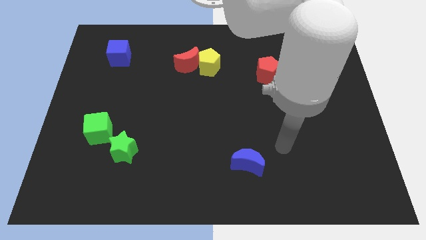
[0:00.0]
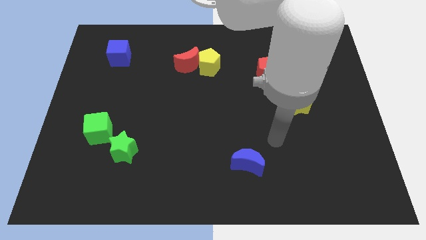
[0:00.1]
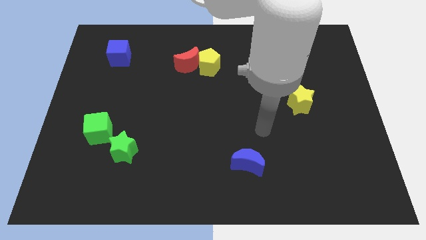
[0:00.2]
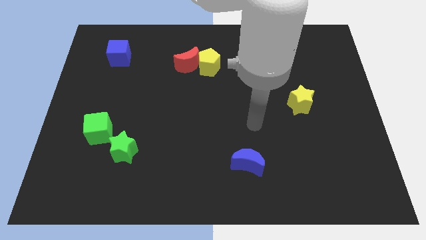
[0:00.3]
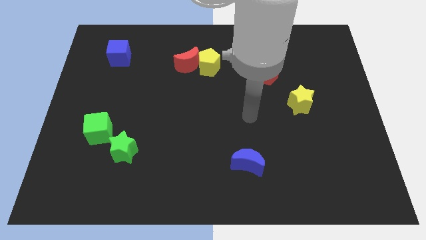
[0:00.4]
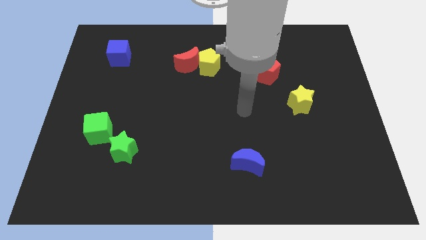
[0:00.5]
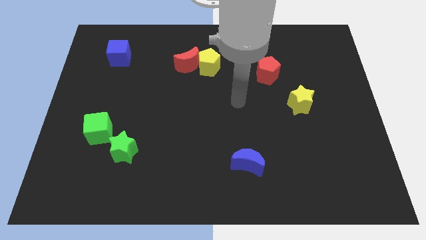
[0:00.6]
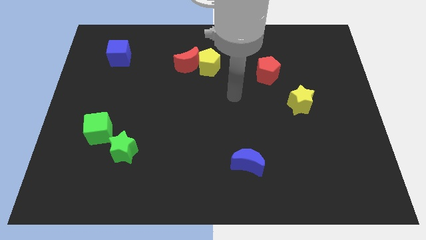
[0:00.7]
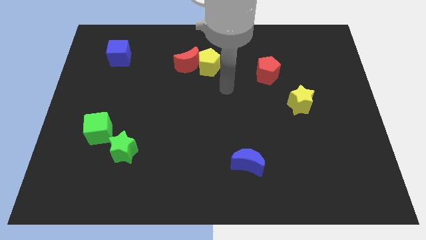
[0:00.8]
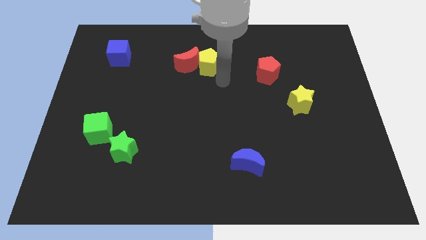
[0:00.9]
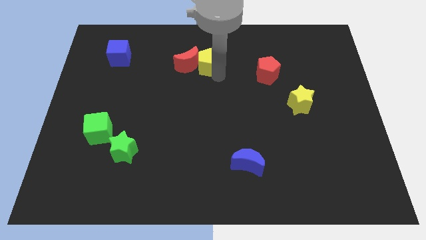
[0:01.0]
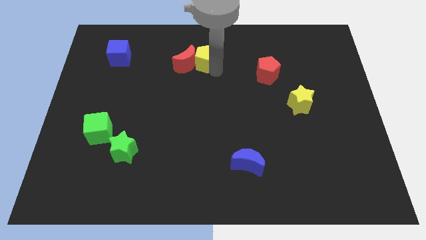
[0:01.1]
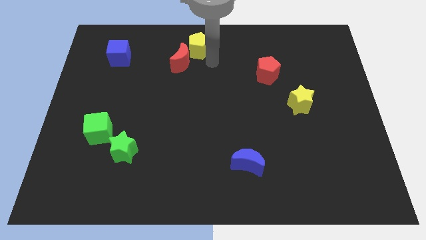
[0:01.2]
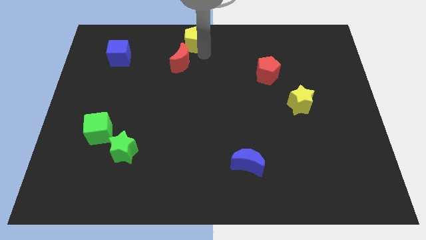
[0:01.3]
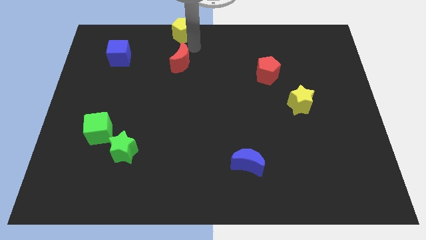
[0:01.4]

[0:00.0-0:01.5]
move the red moon away from the yellow pentagon

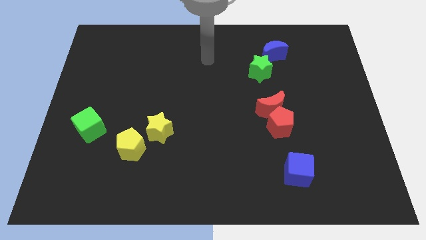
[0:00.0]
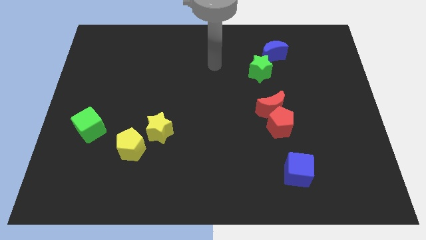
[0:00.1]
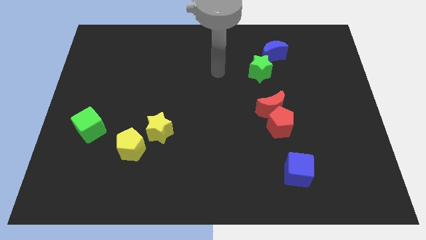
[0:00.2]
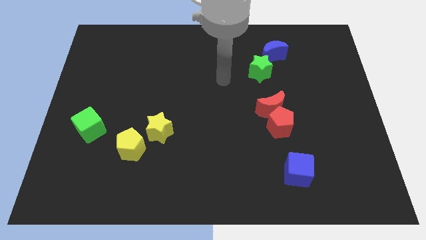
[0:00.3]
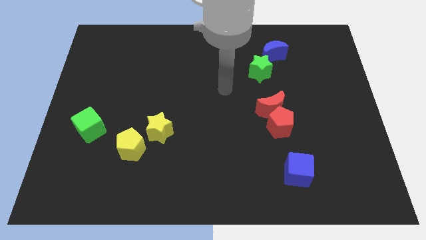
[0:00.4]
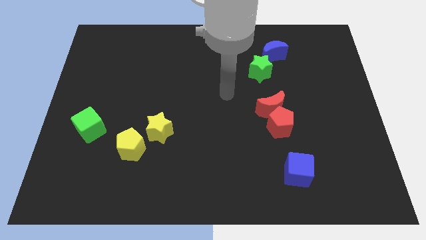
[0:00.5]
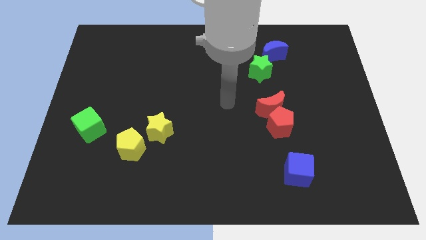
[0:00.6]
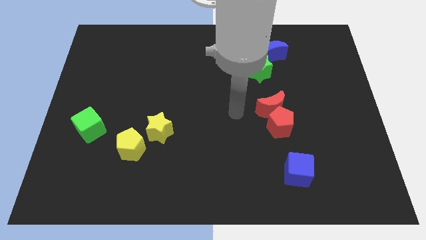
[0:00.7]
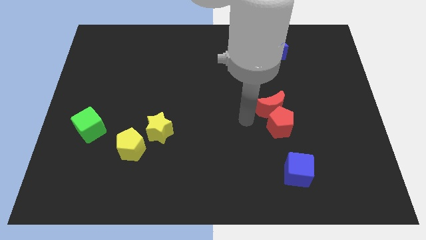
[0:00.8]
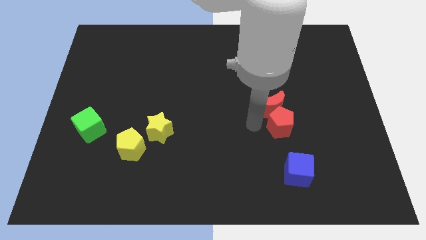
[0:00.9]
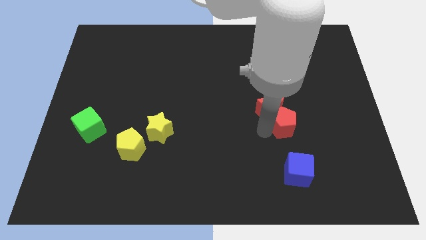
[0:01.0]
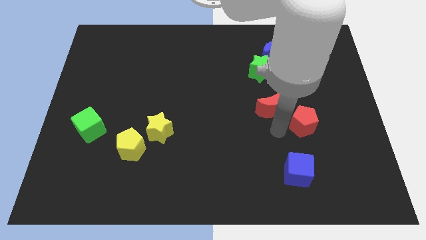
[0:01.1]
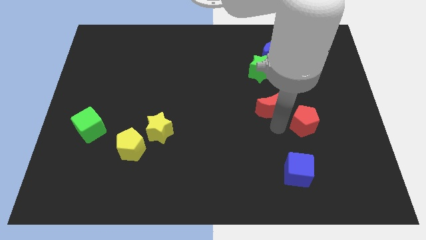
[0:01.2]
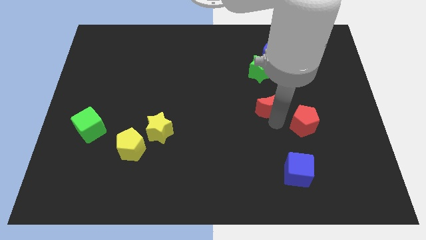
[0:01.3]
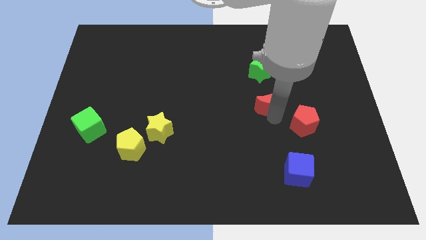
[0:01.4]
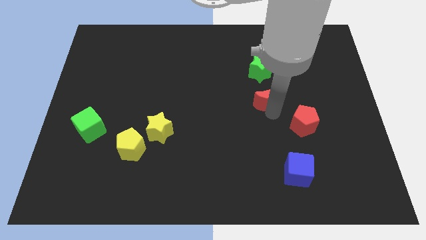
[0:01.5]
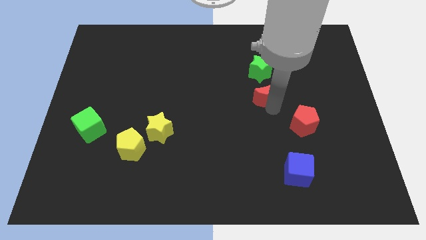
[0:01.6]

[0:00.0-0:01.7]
move the red moon away from the red pentagon

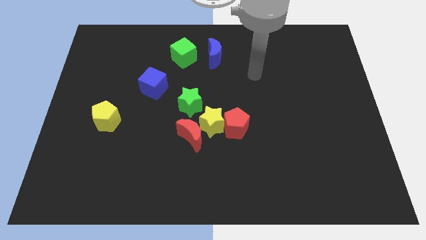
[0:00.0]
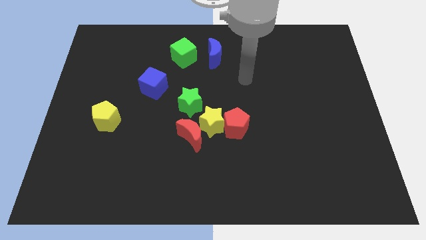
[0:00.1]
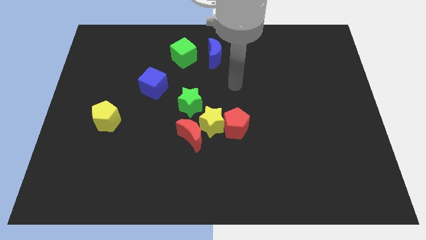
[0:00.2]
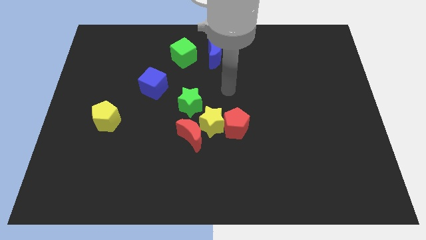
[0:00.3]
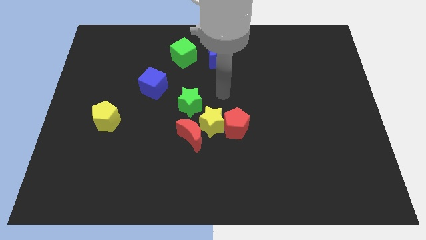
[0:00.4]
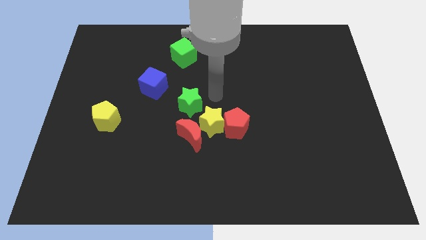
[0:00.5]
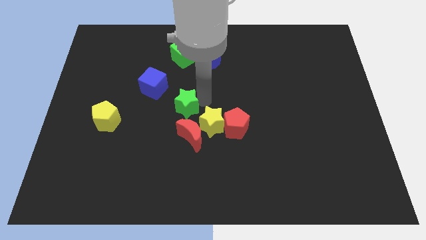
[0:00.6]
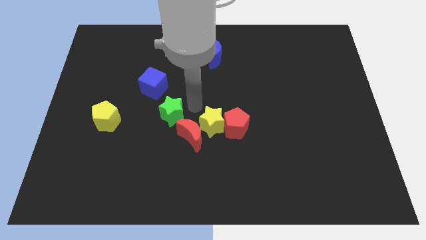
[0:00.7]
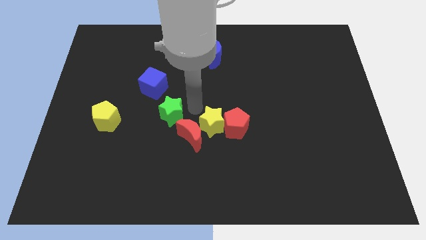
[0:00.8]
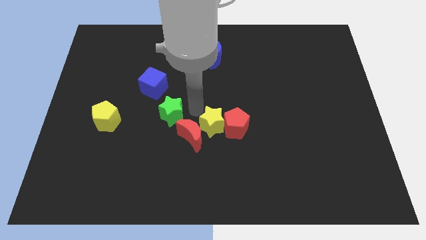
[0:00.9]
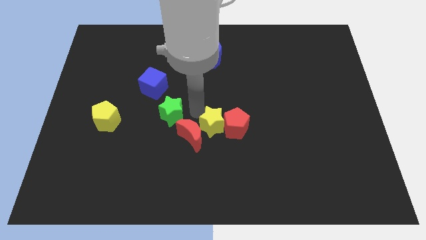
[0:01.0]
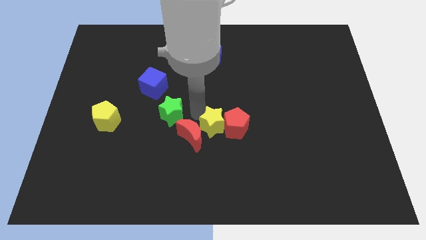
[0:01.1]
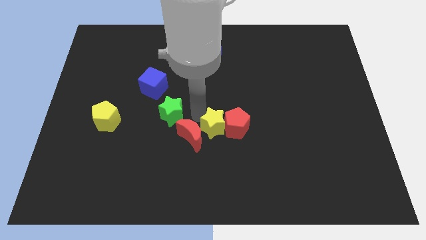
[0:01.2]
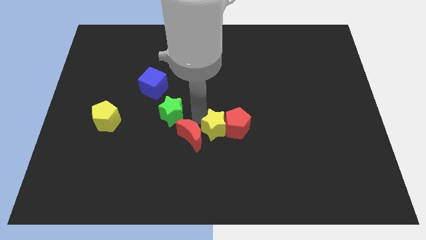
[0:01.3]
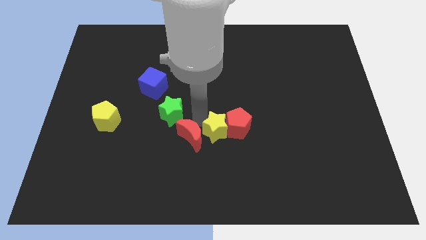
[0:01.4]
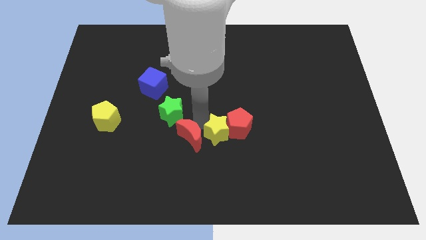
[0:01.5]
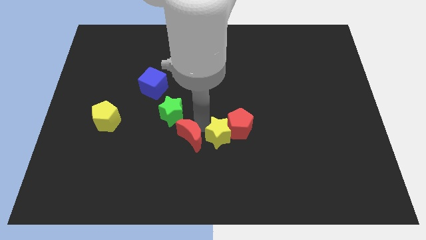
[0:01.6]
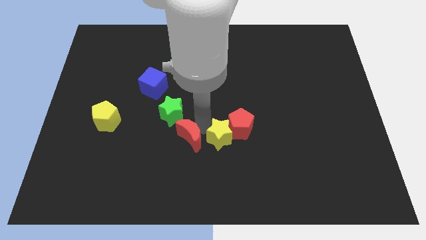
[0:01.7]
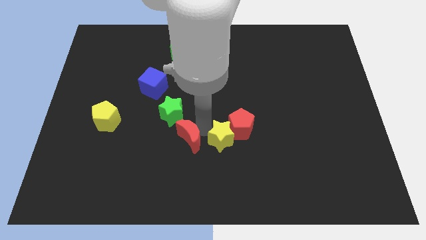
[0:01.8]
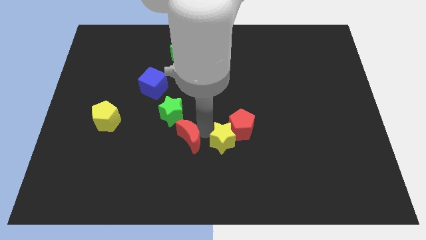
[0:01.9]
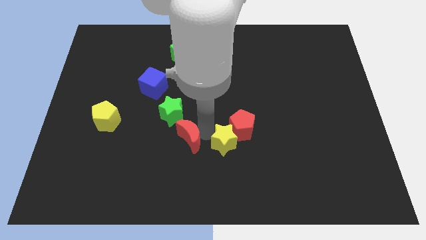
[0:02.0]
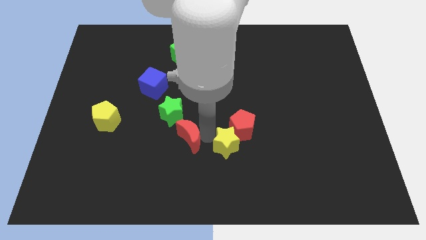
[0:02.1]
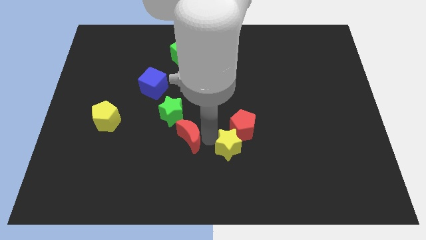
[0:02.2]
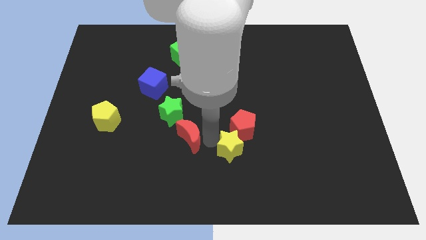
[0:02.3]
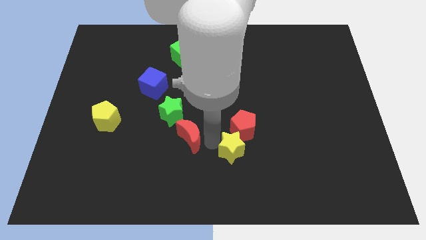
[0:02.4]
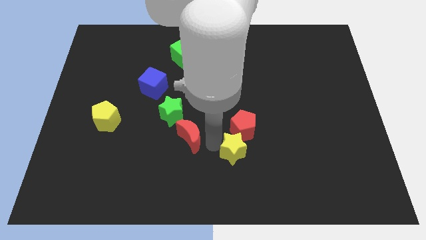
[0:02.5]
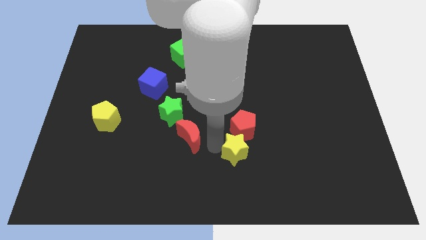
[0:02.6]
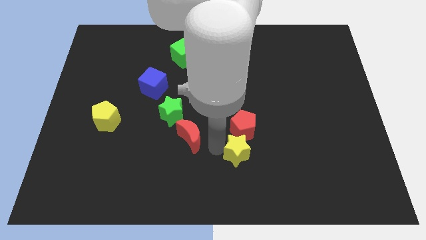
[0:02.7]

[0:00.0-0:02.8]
move the yellow star away from the group

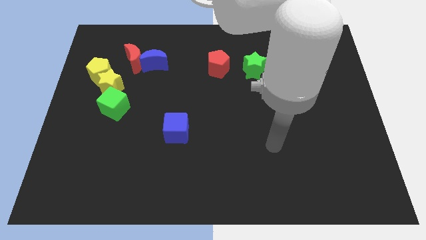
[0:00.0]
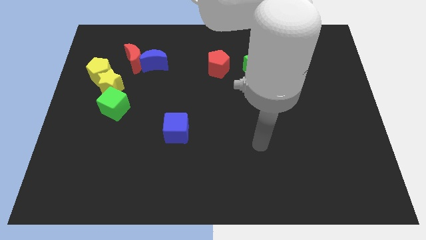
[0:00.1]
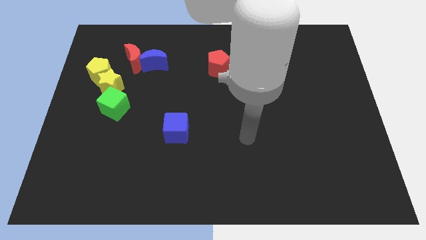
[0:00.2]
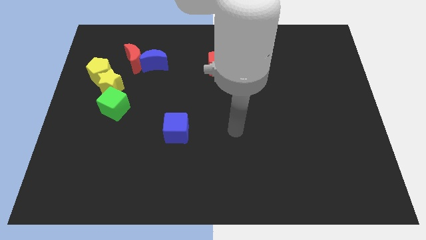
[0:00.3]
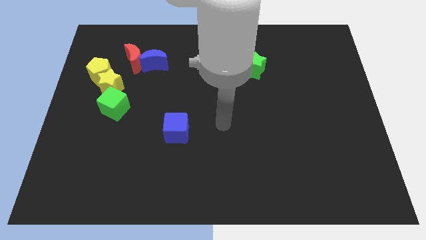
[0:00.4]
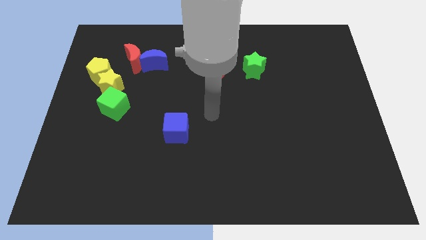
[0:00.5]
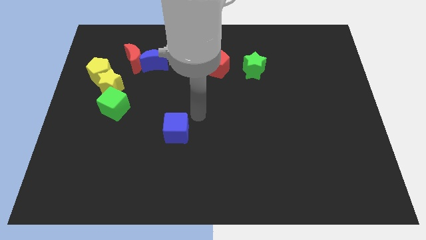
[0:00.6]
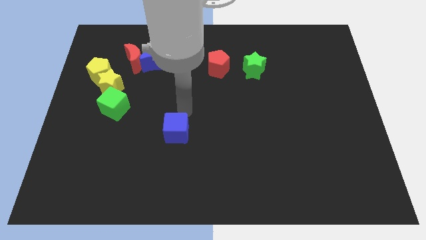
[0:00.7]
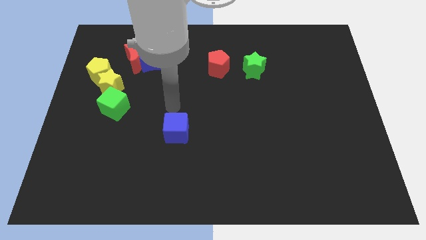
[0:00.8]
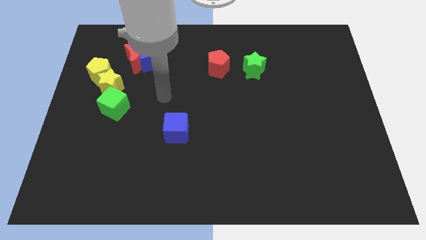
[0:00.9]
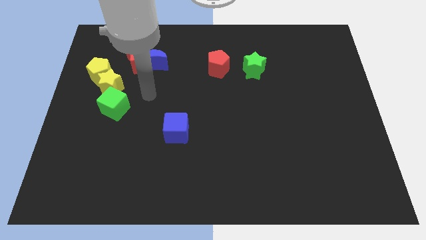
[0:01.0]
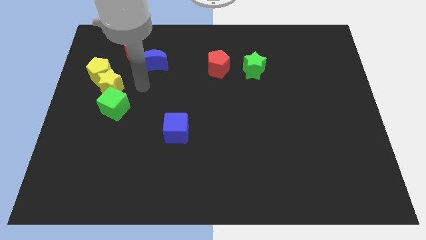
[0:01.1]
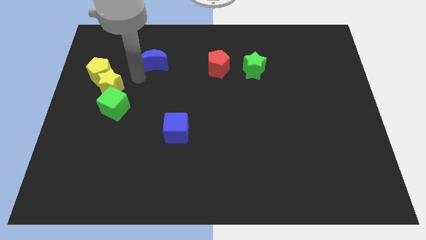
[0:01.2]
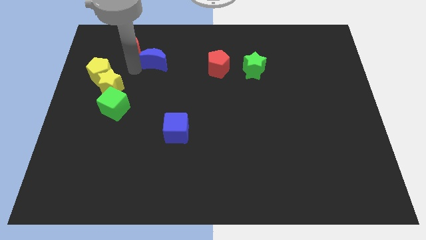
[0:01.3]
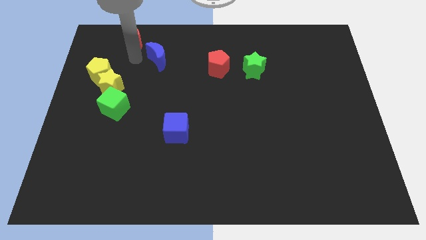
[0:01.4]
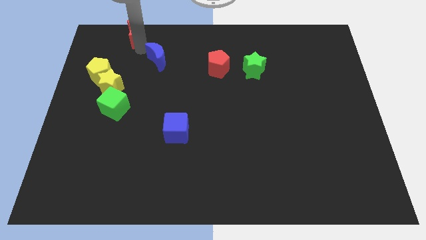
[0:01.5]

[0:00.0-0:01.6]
separate the blue moon from the red moon

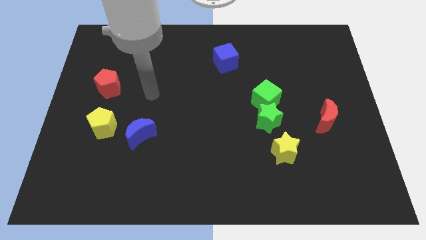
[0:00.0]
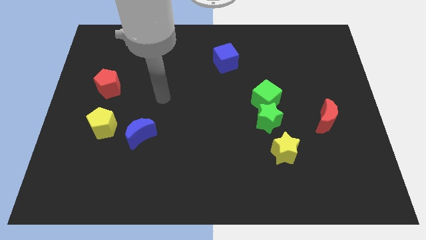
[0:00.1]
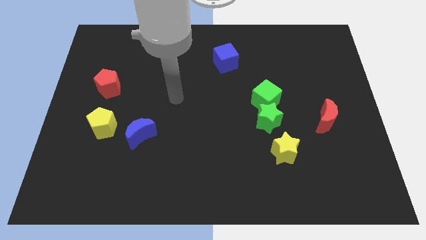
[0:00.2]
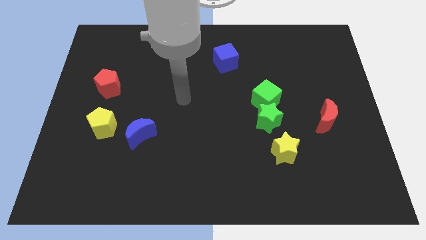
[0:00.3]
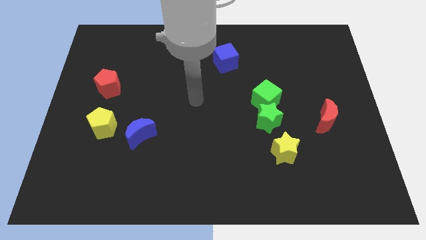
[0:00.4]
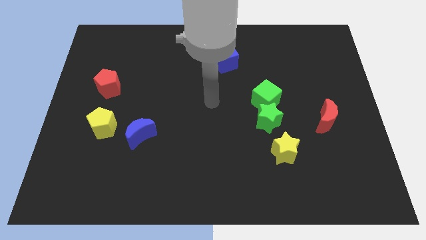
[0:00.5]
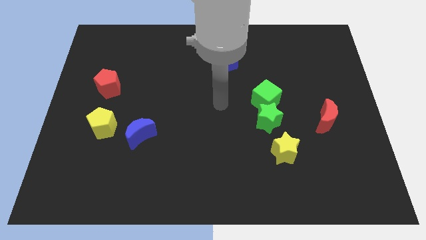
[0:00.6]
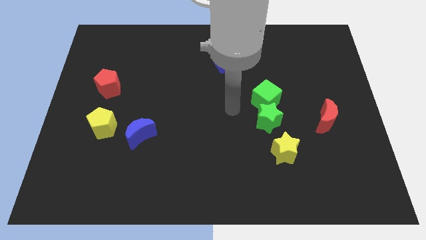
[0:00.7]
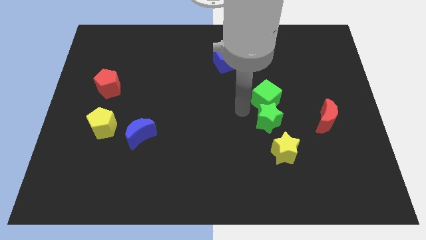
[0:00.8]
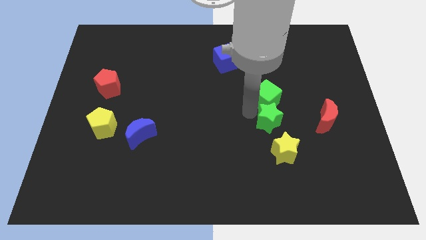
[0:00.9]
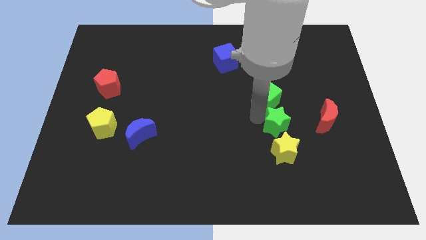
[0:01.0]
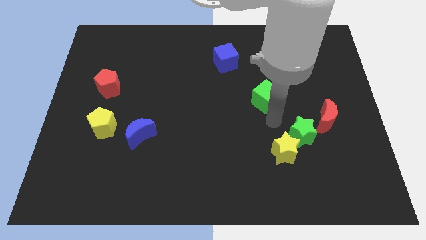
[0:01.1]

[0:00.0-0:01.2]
pull the green cube apart from the green star

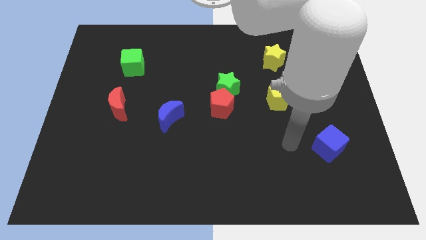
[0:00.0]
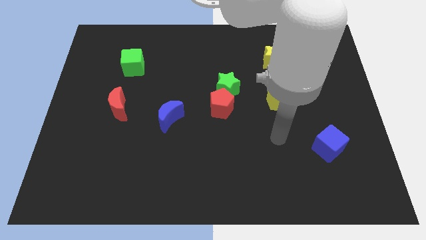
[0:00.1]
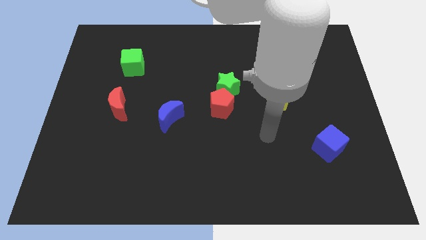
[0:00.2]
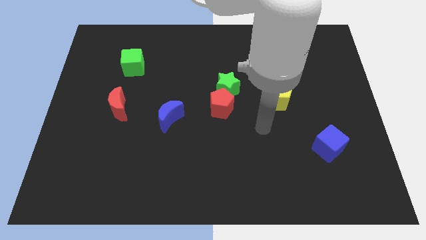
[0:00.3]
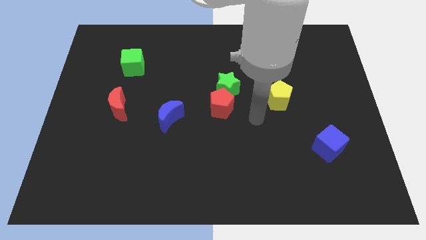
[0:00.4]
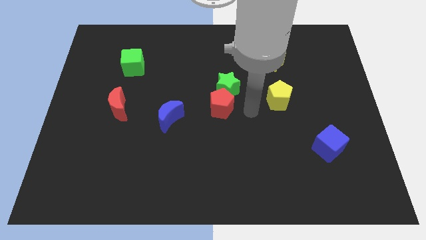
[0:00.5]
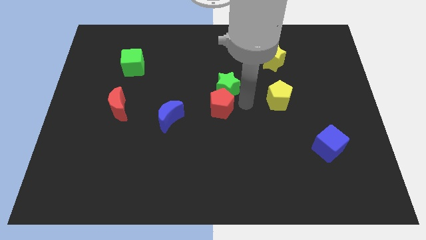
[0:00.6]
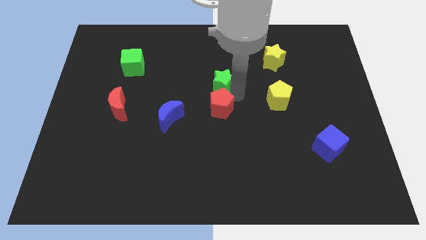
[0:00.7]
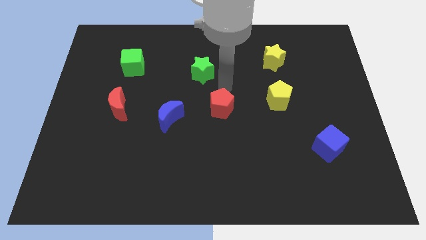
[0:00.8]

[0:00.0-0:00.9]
separate the red pentagon from the green star
